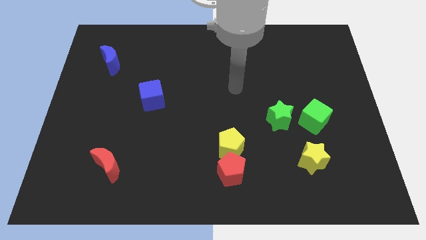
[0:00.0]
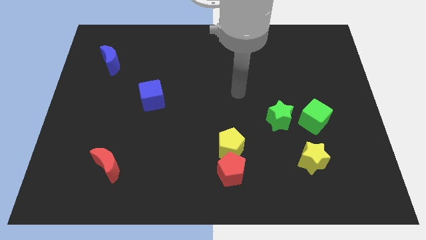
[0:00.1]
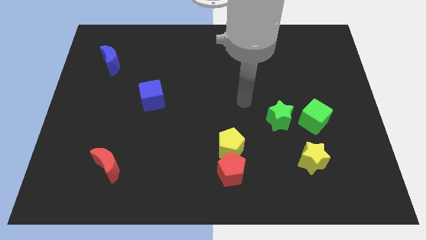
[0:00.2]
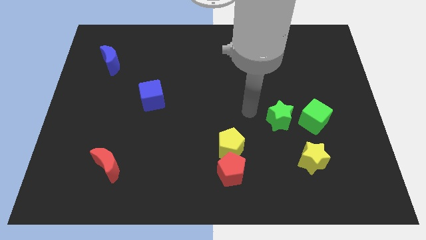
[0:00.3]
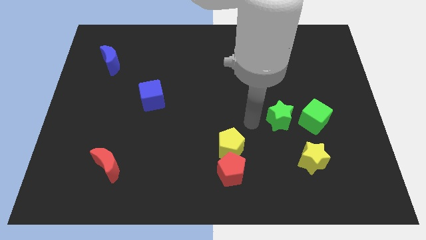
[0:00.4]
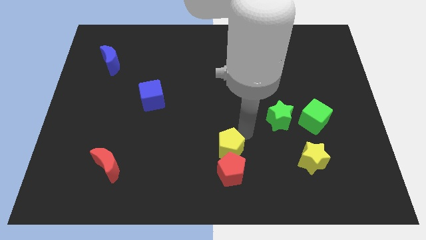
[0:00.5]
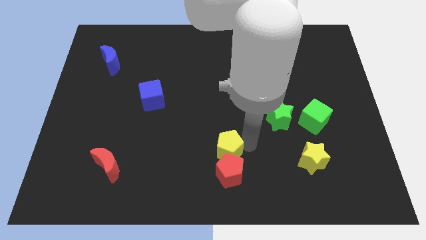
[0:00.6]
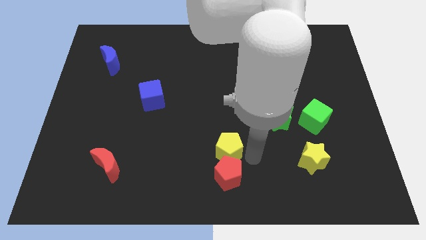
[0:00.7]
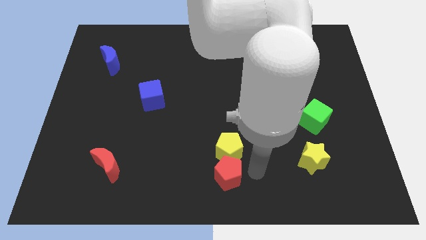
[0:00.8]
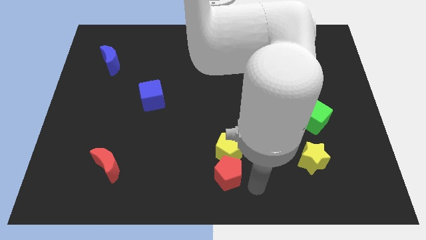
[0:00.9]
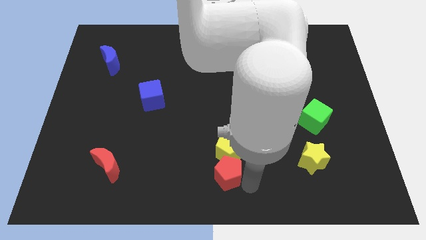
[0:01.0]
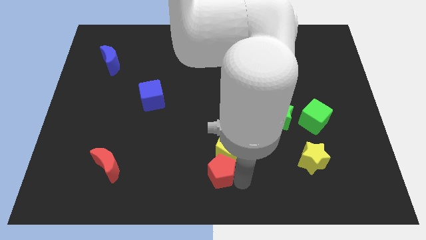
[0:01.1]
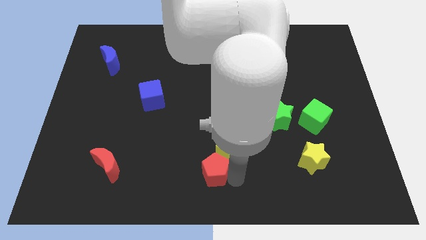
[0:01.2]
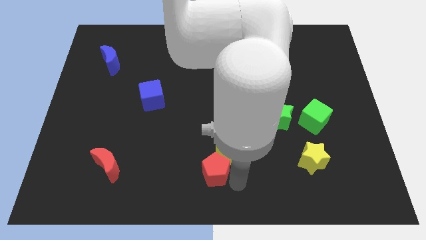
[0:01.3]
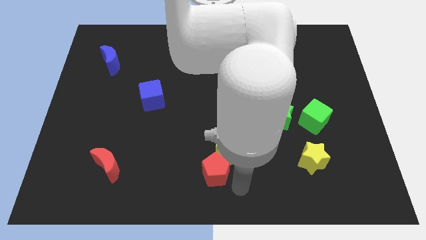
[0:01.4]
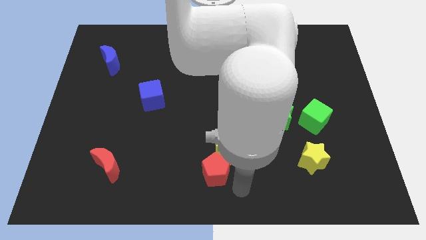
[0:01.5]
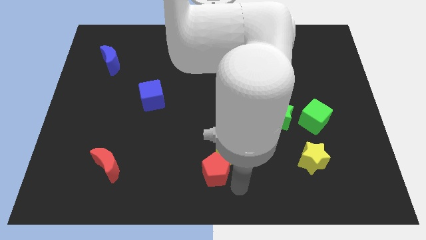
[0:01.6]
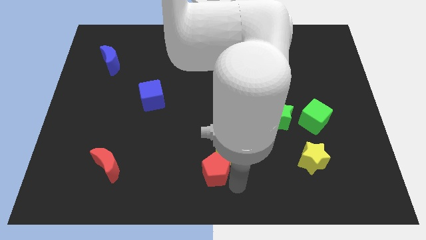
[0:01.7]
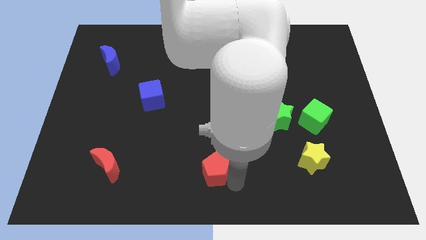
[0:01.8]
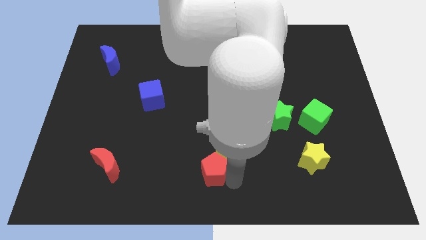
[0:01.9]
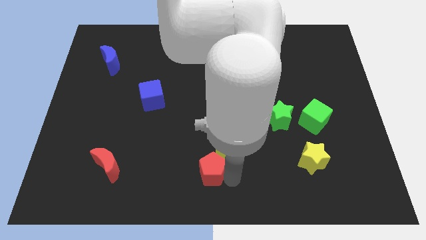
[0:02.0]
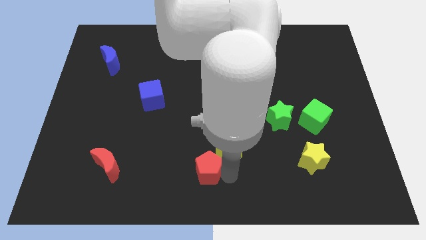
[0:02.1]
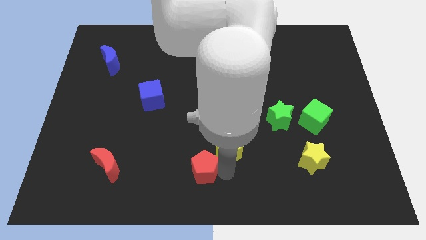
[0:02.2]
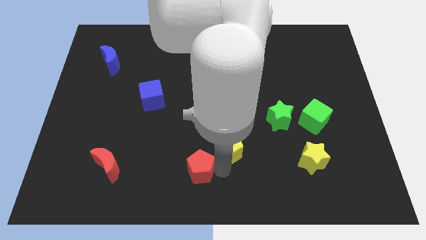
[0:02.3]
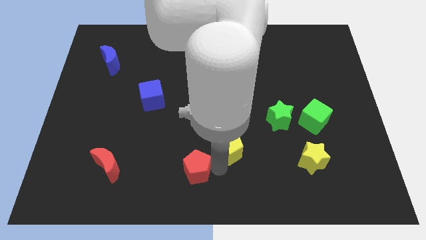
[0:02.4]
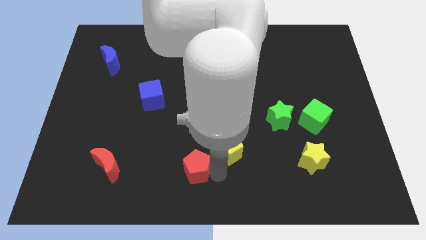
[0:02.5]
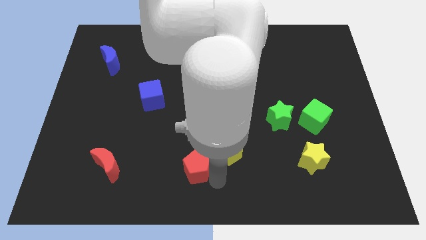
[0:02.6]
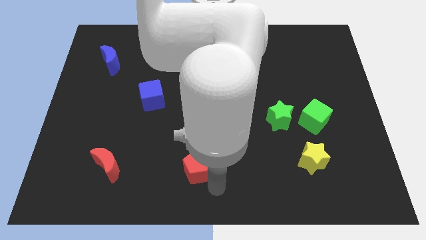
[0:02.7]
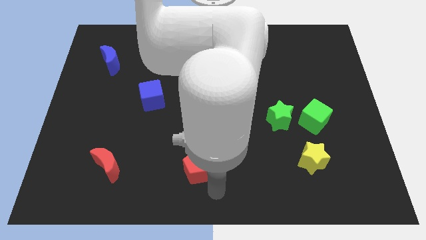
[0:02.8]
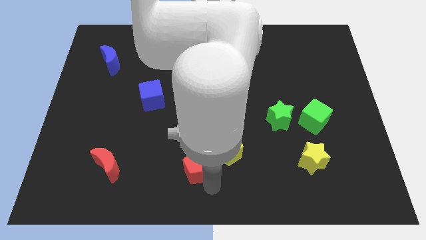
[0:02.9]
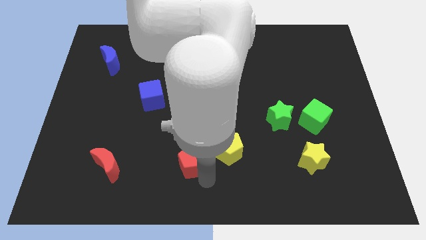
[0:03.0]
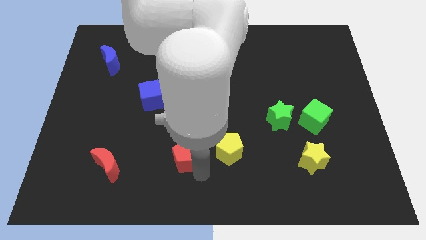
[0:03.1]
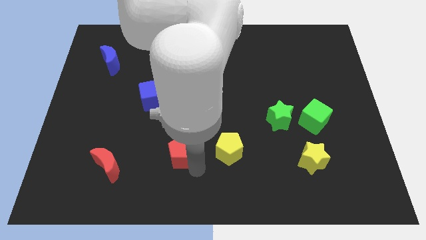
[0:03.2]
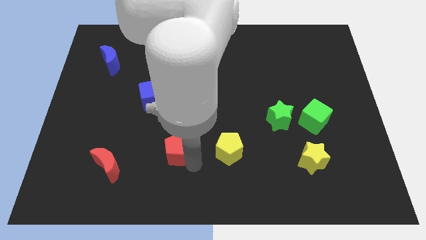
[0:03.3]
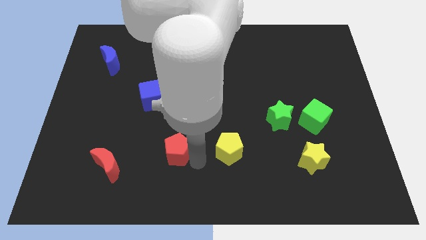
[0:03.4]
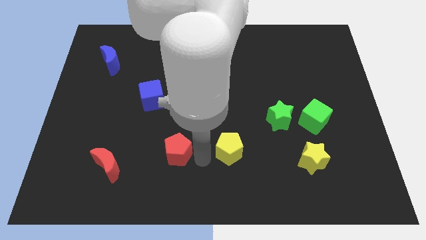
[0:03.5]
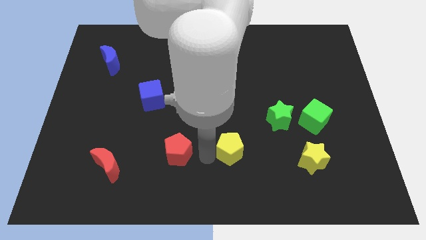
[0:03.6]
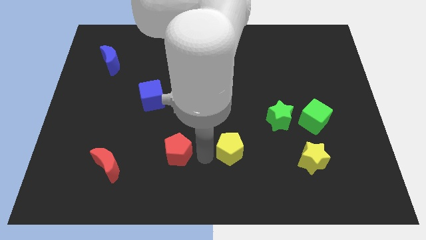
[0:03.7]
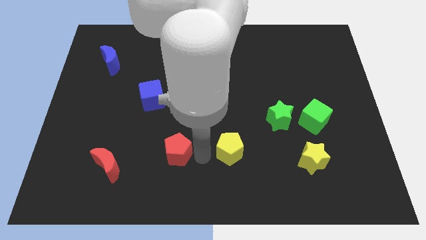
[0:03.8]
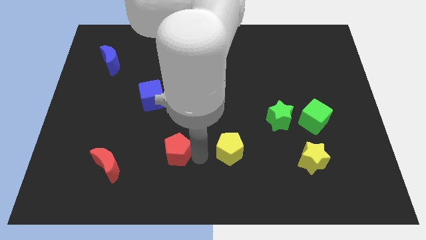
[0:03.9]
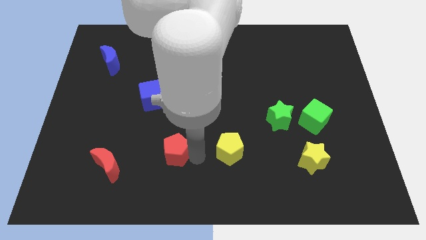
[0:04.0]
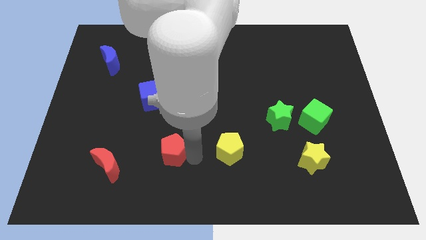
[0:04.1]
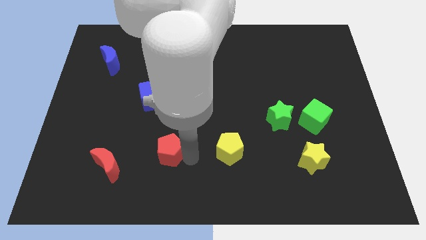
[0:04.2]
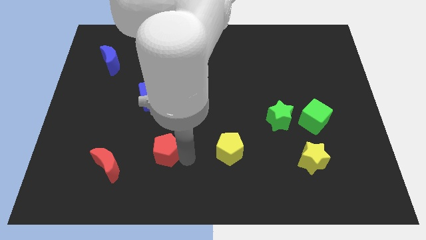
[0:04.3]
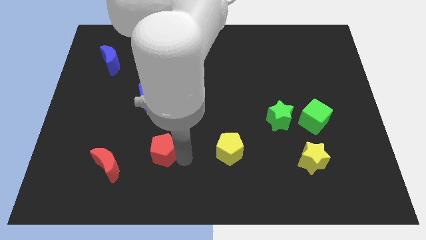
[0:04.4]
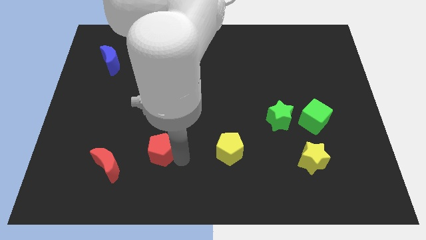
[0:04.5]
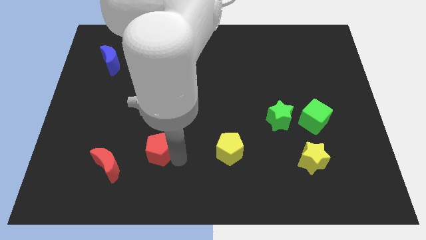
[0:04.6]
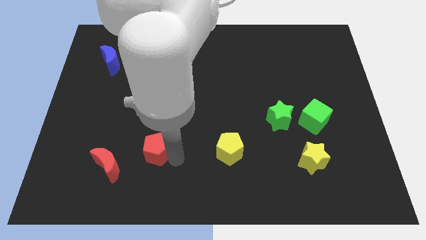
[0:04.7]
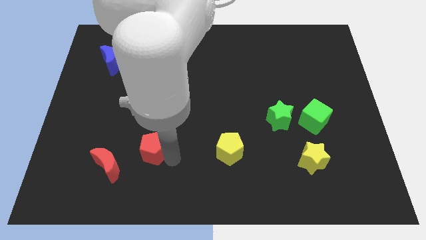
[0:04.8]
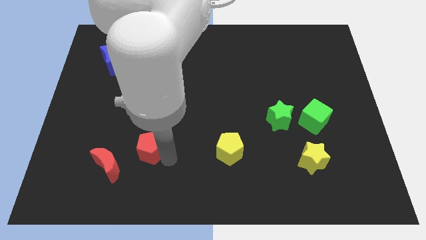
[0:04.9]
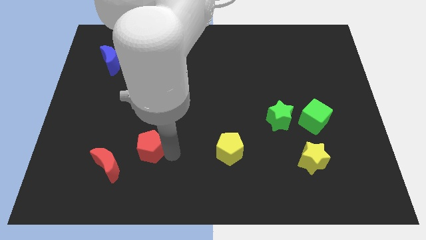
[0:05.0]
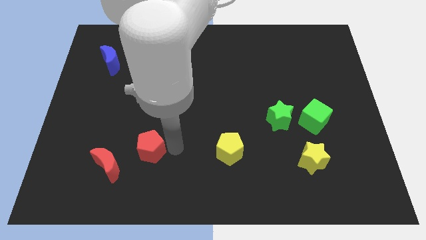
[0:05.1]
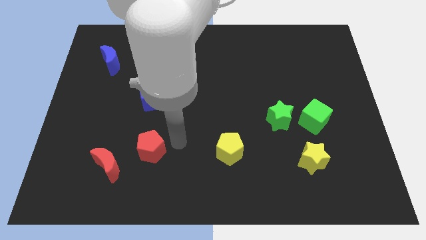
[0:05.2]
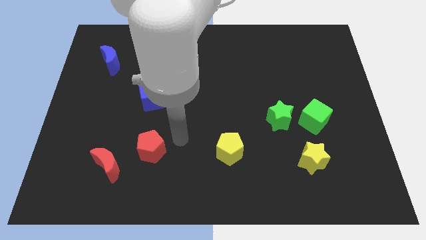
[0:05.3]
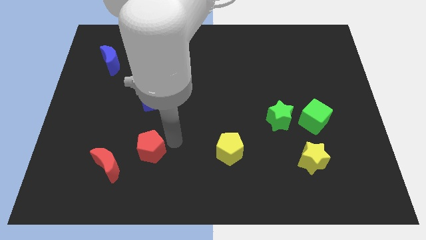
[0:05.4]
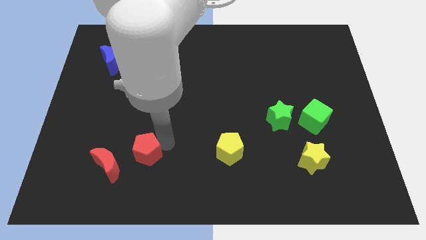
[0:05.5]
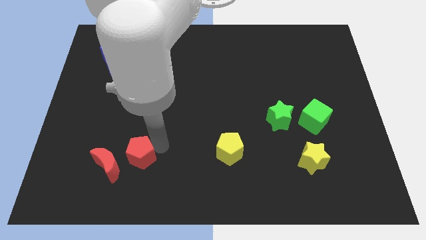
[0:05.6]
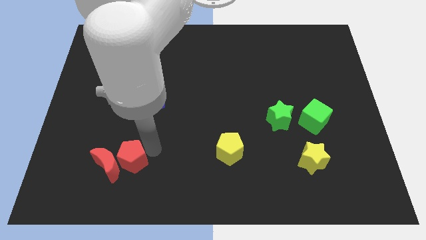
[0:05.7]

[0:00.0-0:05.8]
put the red pentagon towards the red moon

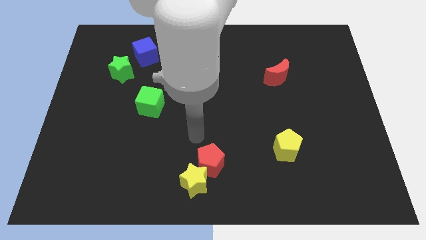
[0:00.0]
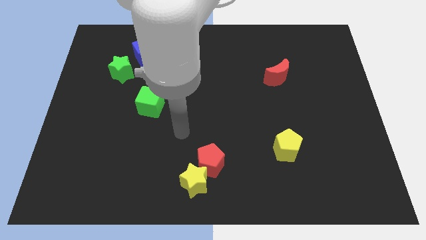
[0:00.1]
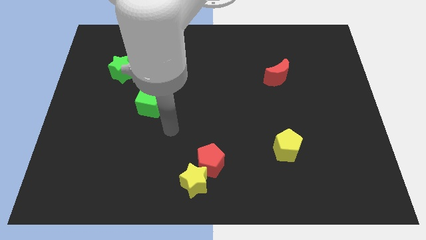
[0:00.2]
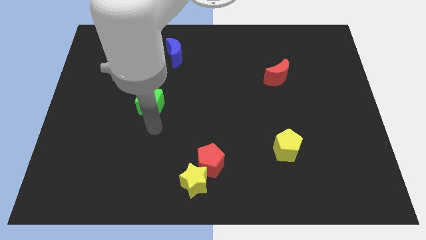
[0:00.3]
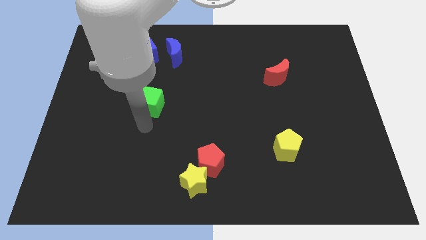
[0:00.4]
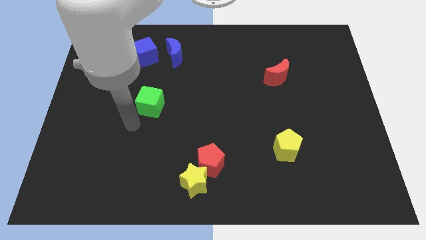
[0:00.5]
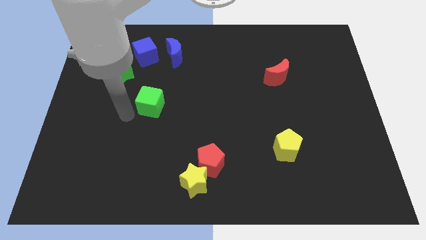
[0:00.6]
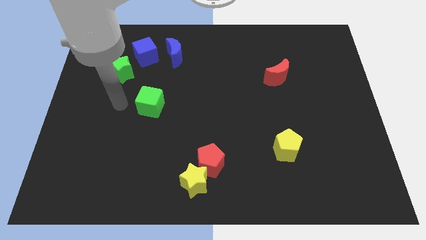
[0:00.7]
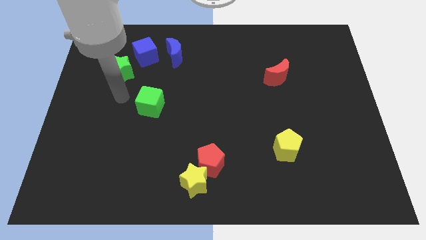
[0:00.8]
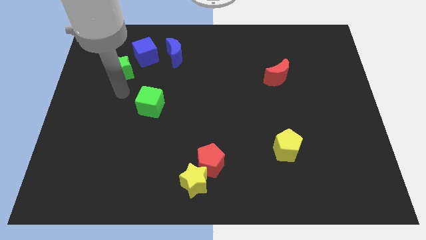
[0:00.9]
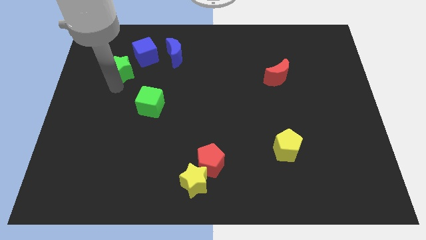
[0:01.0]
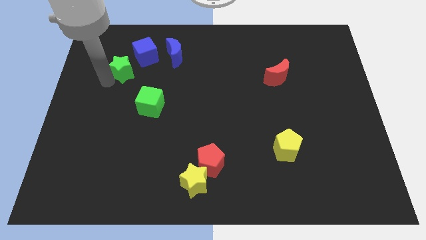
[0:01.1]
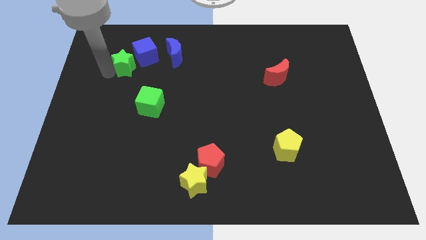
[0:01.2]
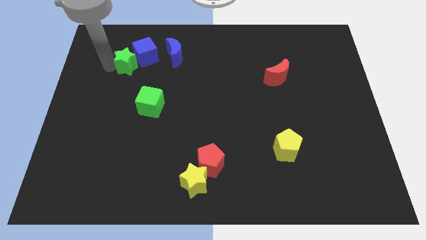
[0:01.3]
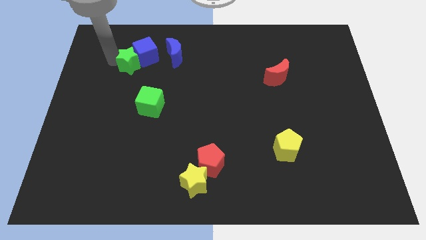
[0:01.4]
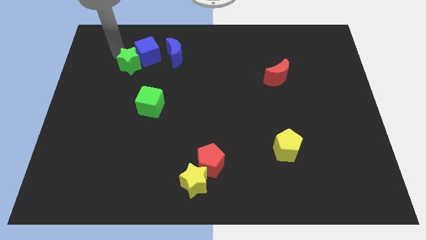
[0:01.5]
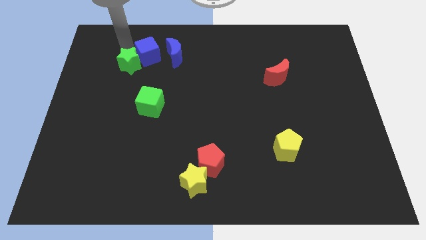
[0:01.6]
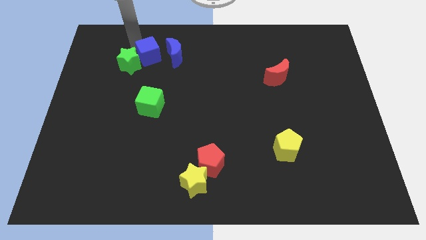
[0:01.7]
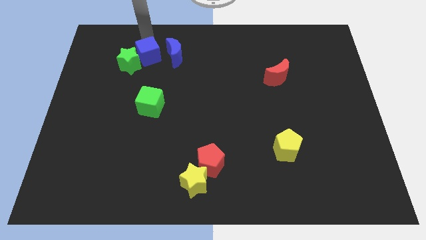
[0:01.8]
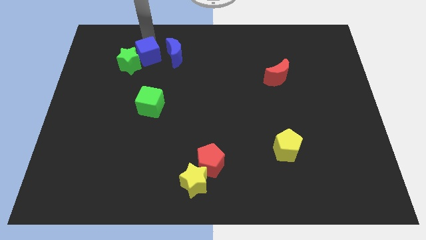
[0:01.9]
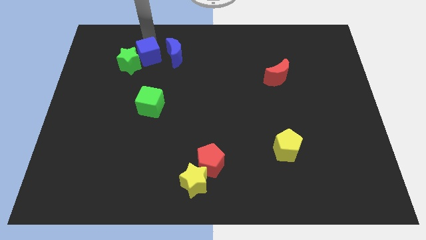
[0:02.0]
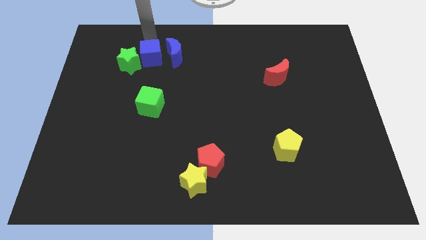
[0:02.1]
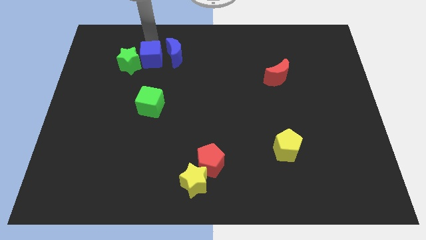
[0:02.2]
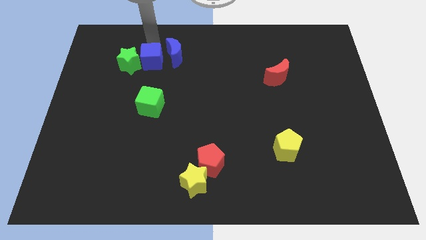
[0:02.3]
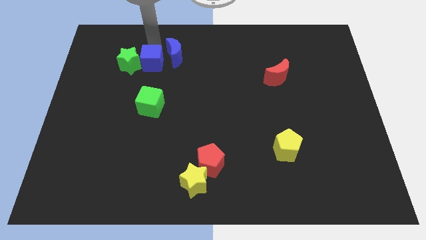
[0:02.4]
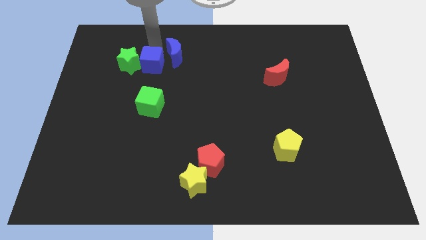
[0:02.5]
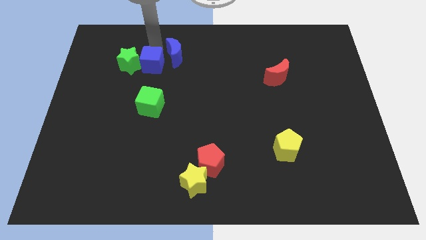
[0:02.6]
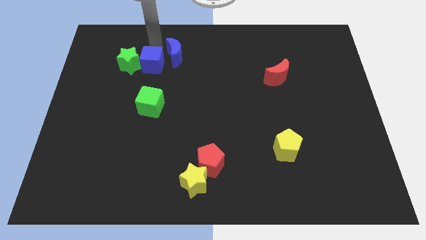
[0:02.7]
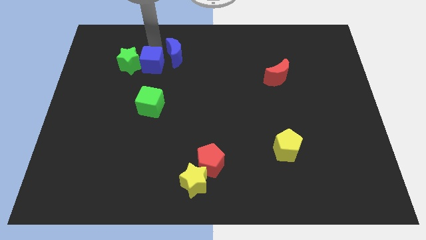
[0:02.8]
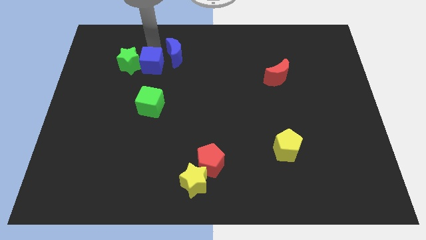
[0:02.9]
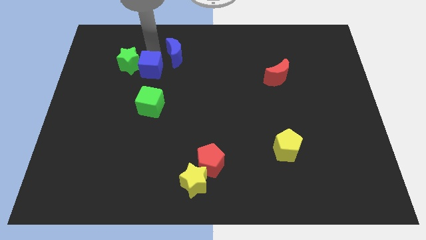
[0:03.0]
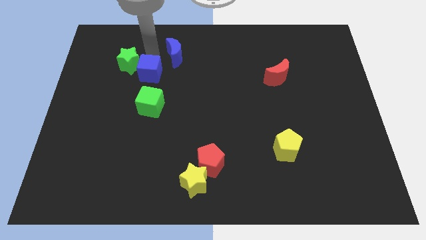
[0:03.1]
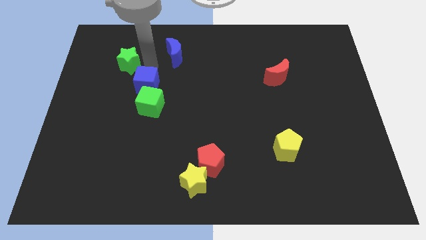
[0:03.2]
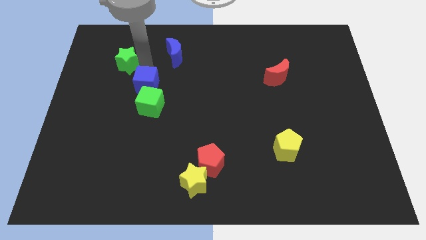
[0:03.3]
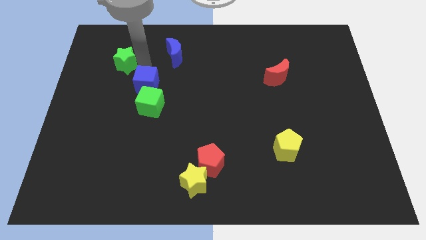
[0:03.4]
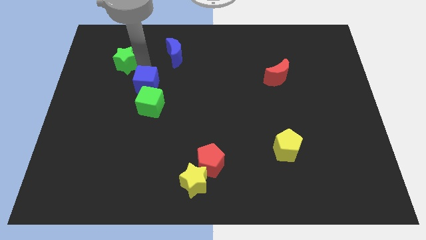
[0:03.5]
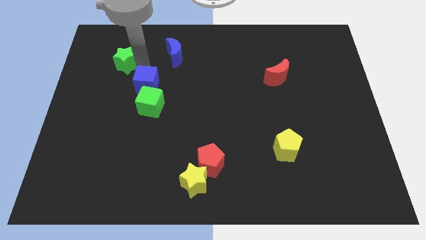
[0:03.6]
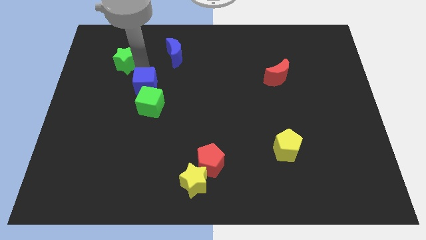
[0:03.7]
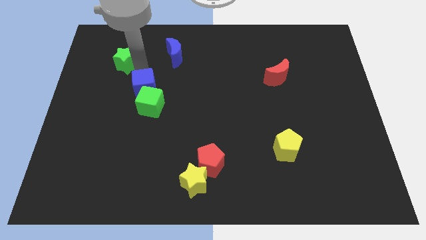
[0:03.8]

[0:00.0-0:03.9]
put the blue cube towards the green cube
